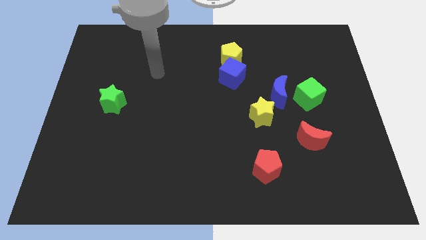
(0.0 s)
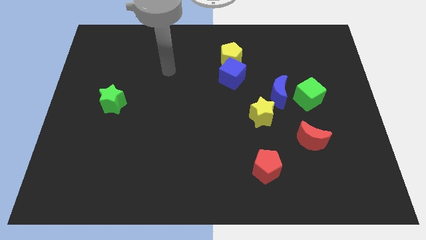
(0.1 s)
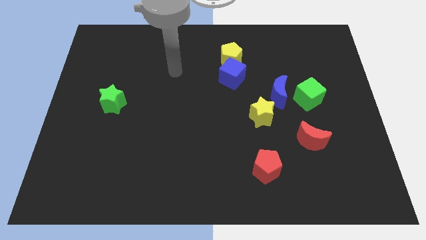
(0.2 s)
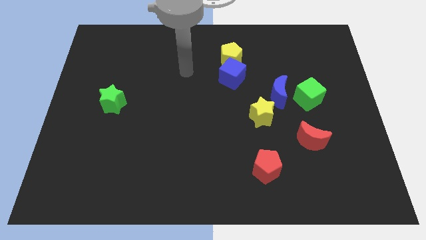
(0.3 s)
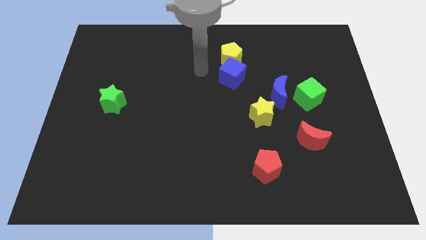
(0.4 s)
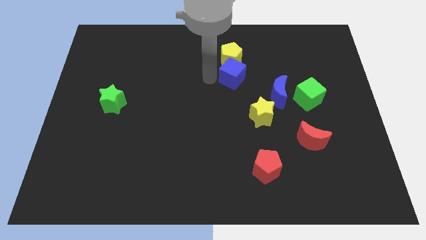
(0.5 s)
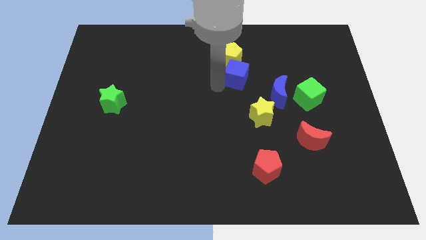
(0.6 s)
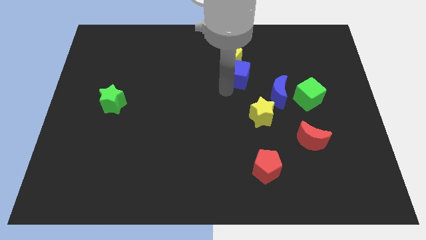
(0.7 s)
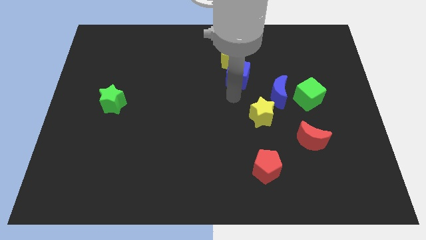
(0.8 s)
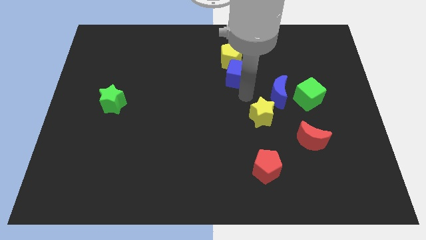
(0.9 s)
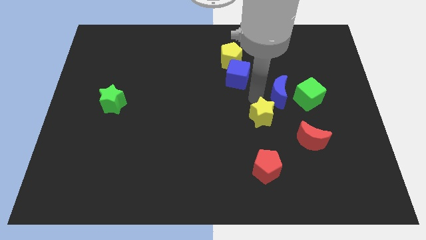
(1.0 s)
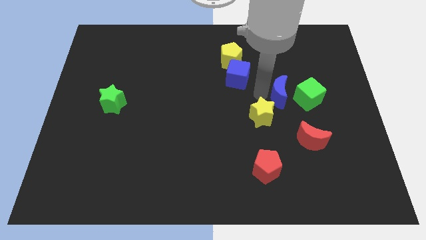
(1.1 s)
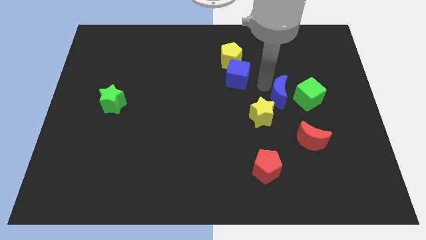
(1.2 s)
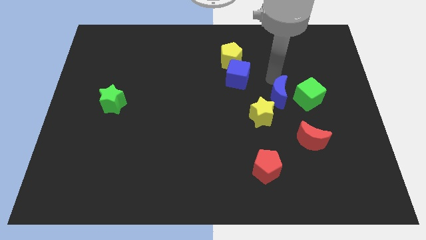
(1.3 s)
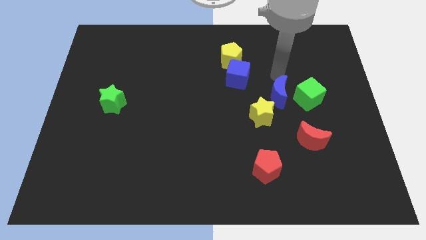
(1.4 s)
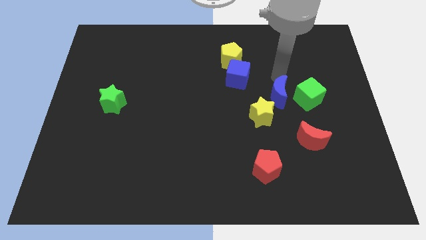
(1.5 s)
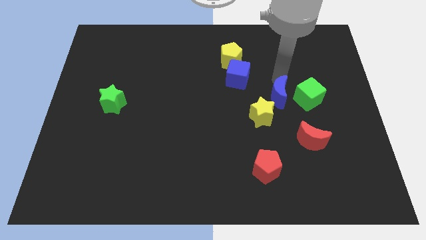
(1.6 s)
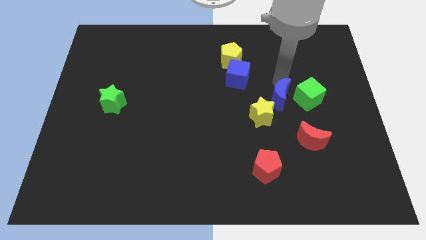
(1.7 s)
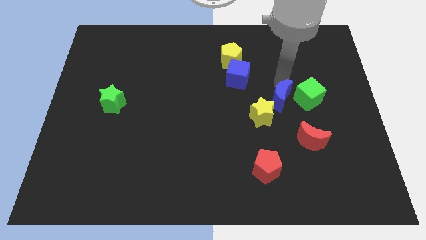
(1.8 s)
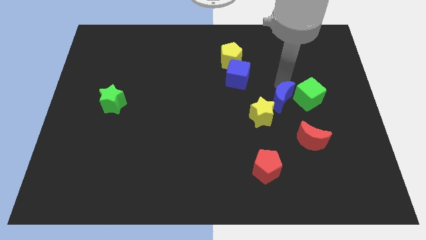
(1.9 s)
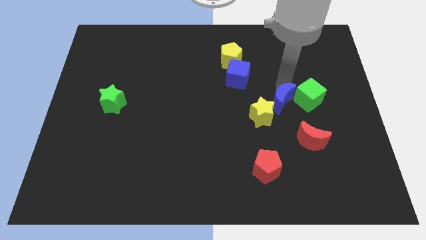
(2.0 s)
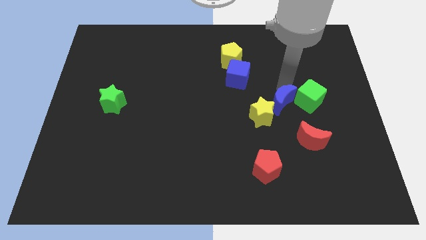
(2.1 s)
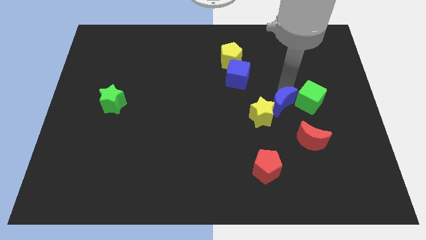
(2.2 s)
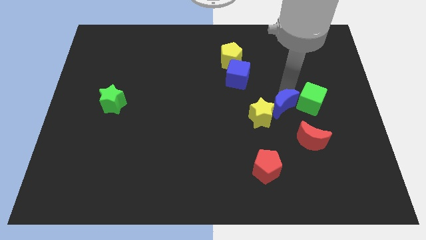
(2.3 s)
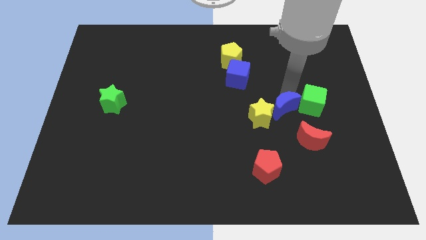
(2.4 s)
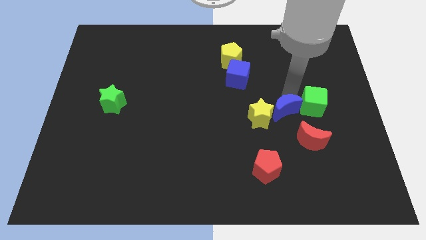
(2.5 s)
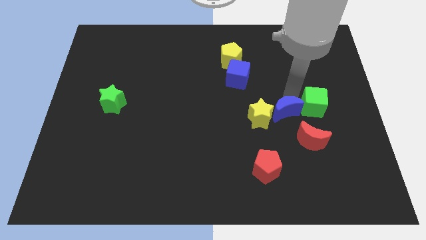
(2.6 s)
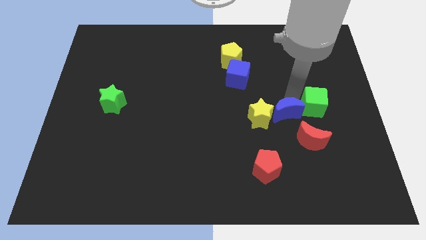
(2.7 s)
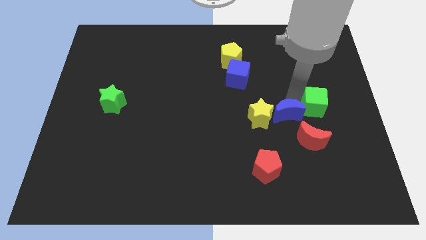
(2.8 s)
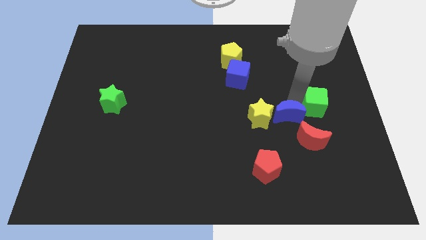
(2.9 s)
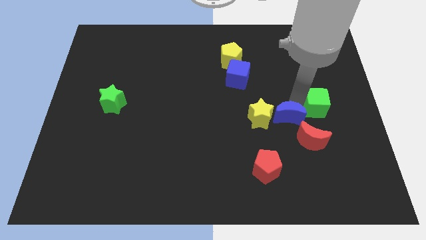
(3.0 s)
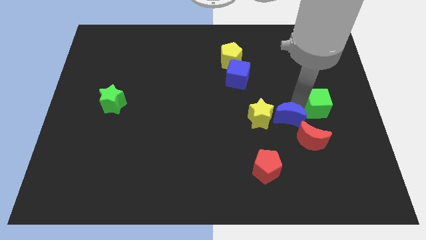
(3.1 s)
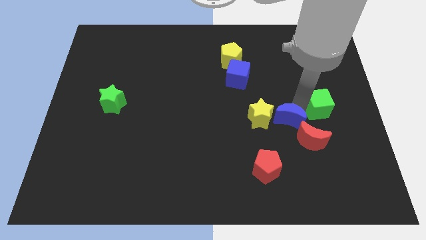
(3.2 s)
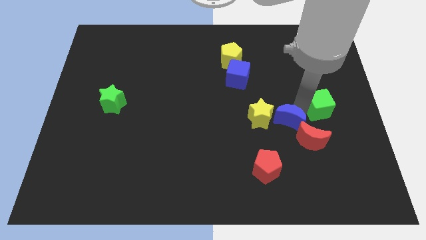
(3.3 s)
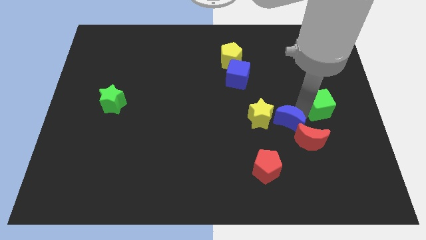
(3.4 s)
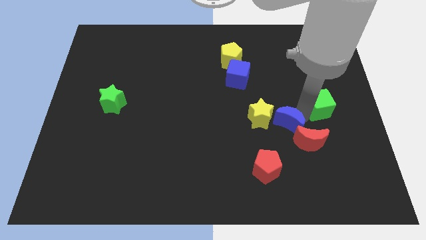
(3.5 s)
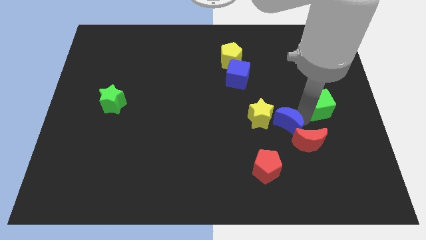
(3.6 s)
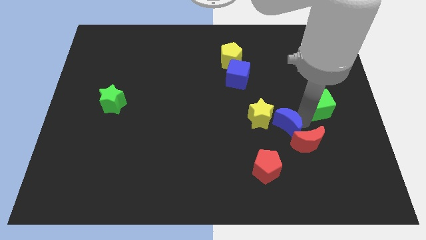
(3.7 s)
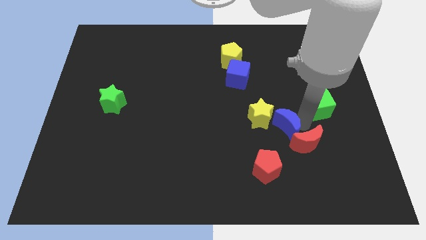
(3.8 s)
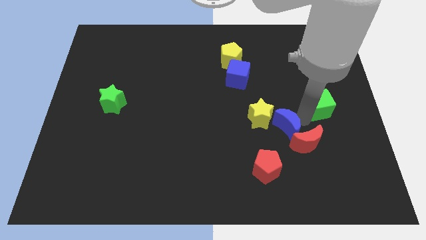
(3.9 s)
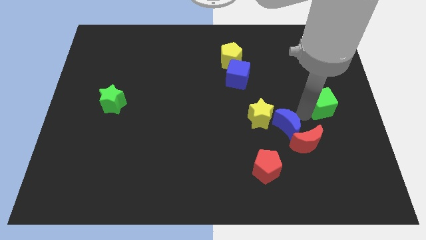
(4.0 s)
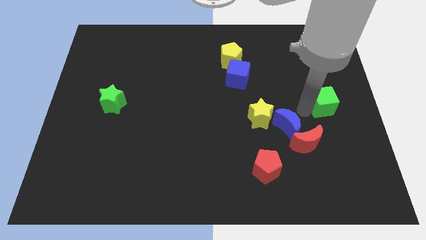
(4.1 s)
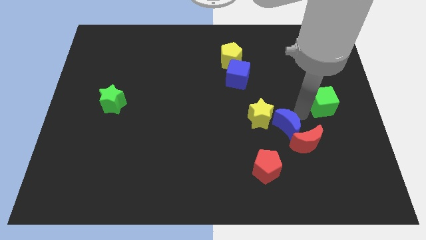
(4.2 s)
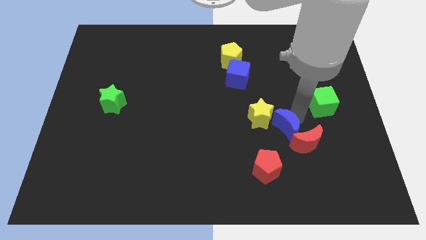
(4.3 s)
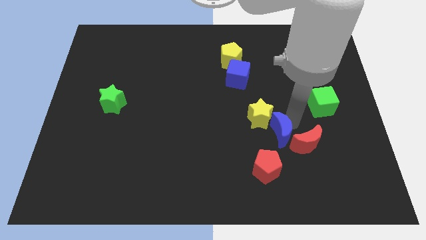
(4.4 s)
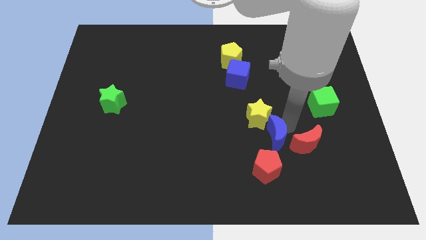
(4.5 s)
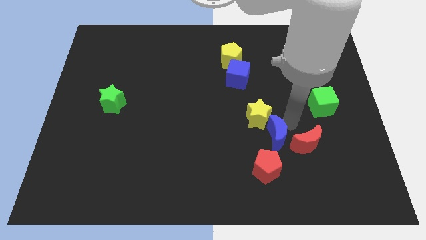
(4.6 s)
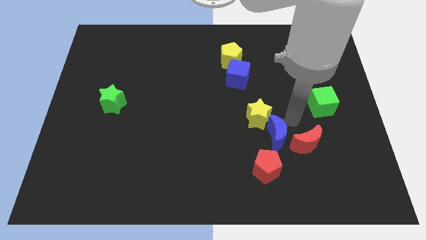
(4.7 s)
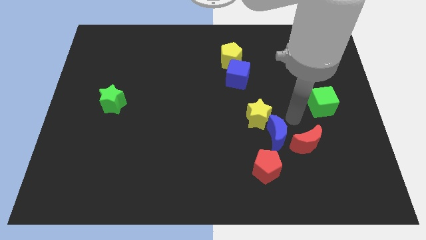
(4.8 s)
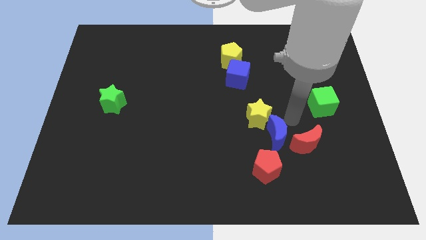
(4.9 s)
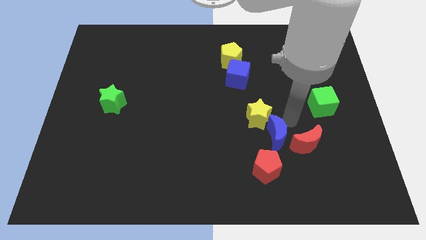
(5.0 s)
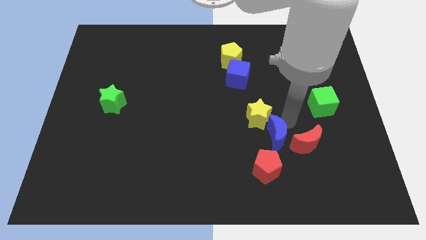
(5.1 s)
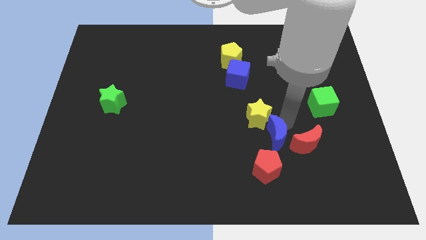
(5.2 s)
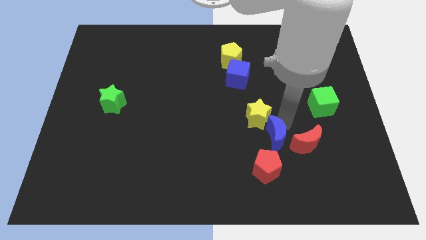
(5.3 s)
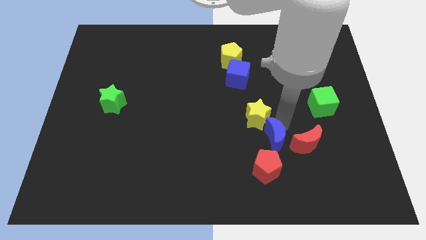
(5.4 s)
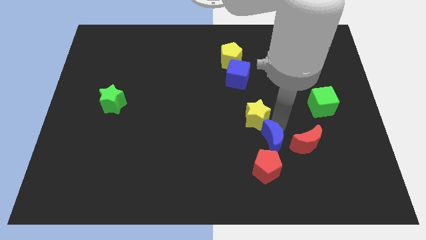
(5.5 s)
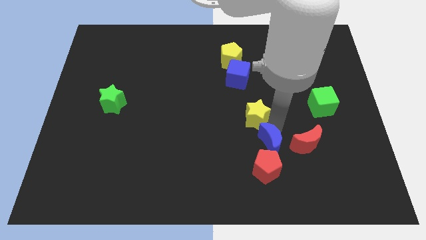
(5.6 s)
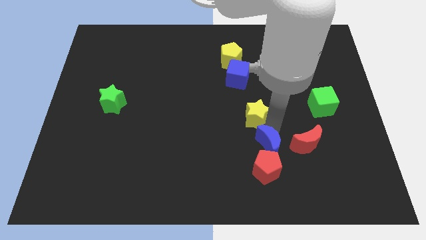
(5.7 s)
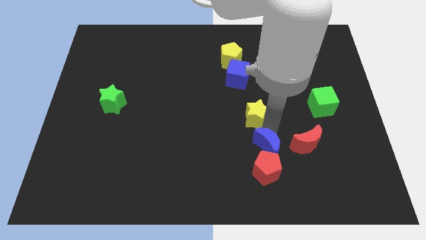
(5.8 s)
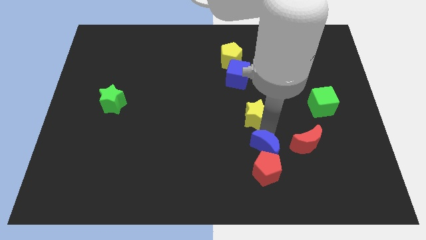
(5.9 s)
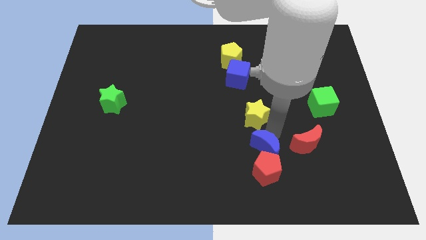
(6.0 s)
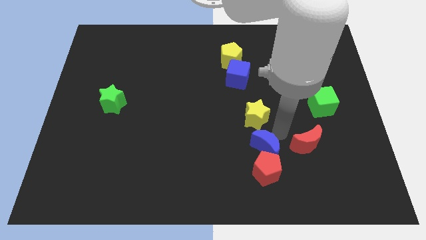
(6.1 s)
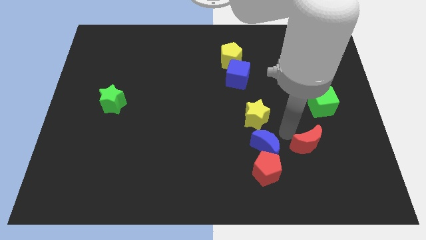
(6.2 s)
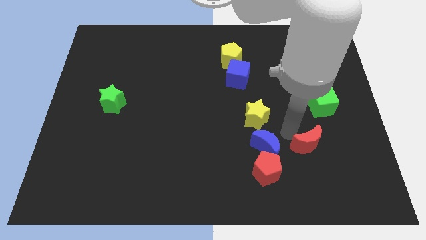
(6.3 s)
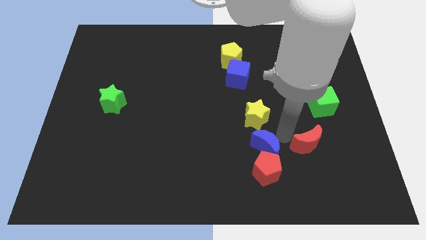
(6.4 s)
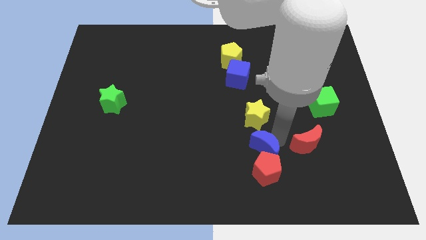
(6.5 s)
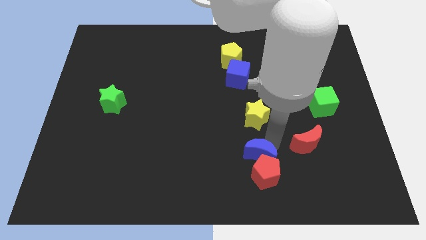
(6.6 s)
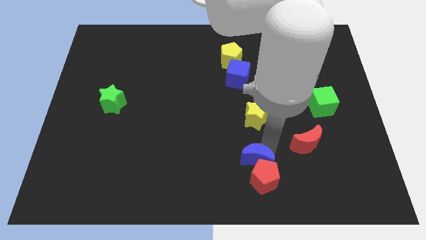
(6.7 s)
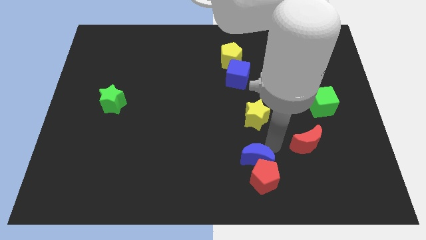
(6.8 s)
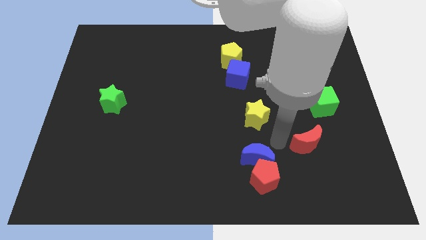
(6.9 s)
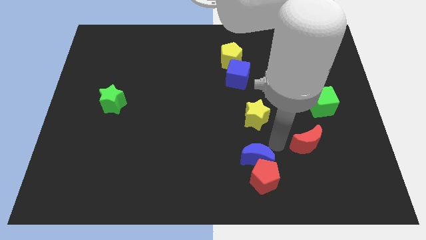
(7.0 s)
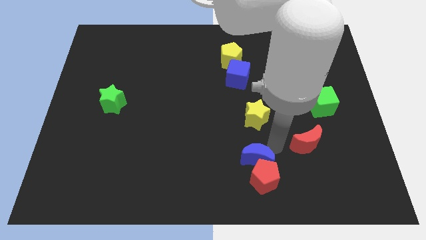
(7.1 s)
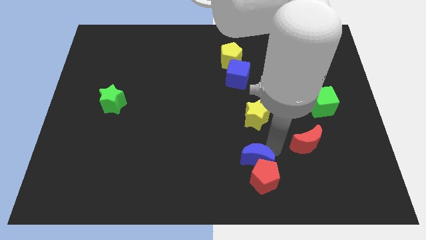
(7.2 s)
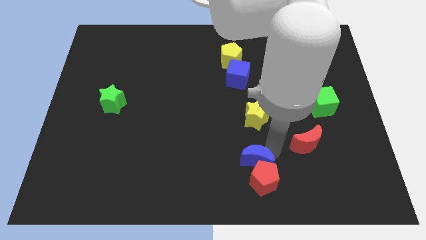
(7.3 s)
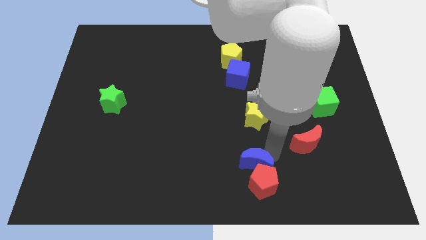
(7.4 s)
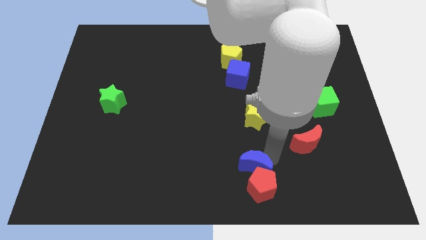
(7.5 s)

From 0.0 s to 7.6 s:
move the blue moon to the bottom side
